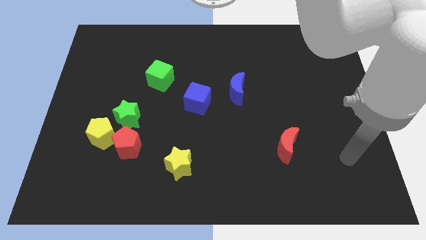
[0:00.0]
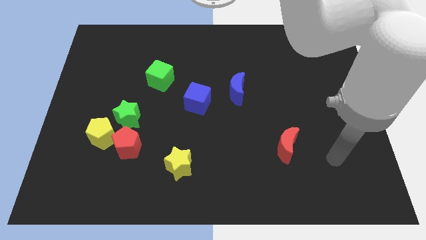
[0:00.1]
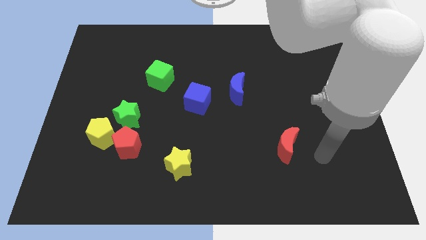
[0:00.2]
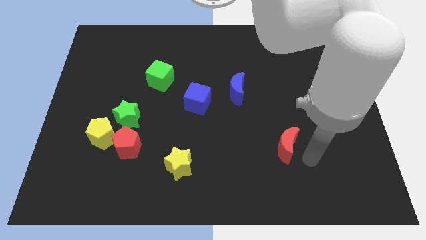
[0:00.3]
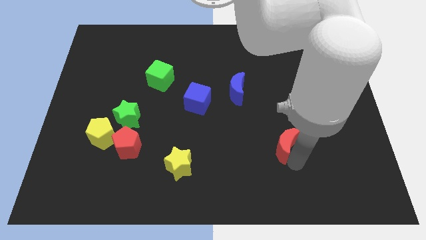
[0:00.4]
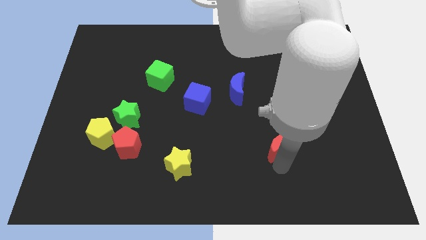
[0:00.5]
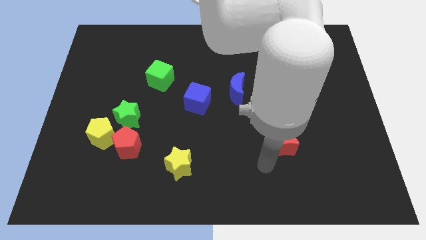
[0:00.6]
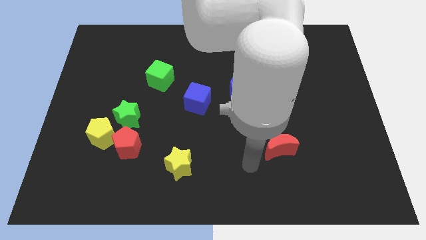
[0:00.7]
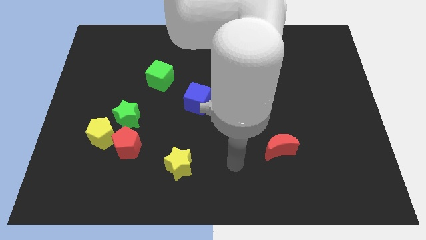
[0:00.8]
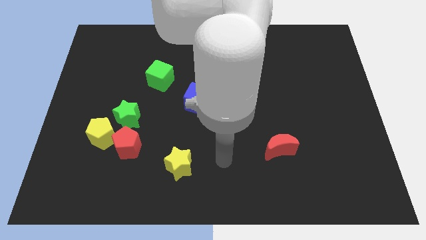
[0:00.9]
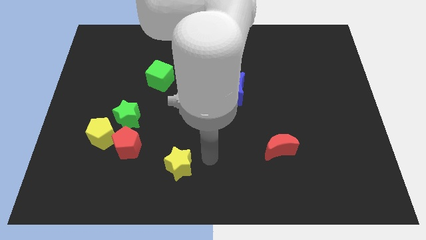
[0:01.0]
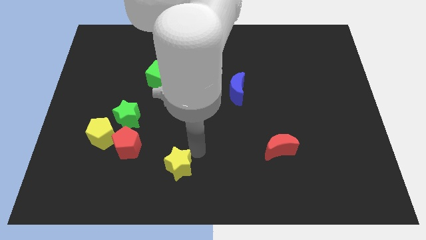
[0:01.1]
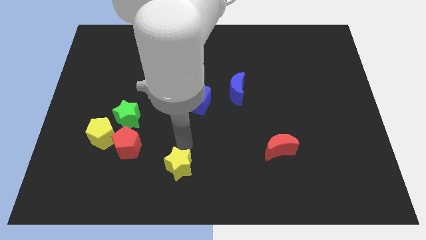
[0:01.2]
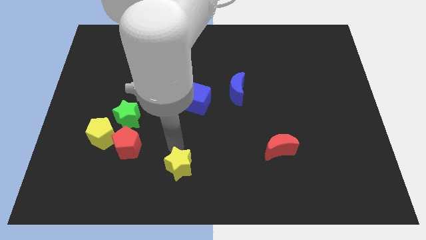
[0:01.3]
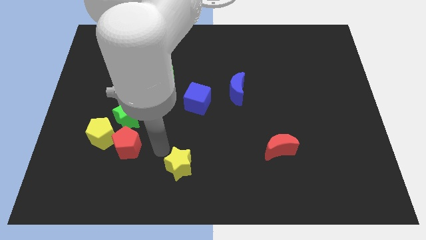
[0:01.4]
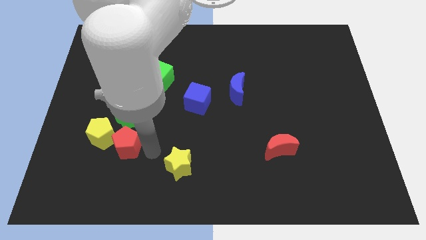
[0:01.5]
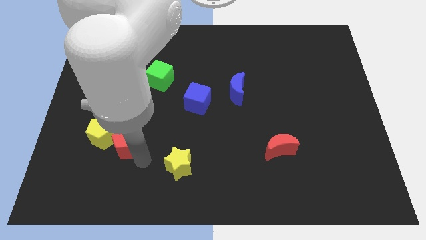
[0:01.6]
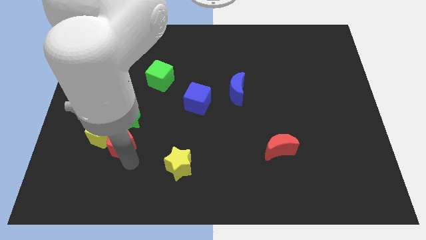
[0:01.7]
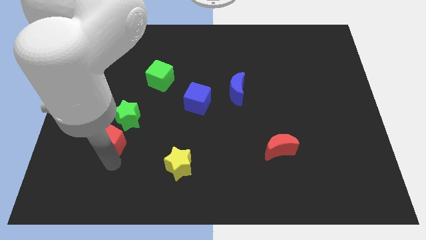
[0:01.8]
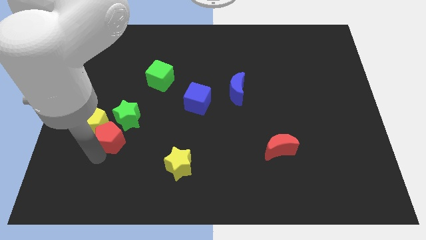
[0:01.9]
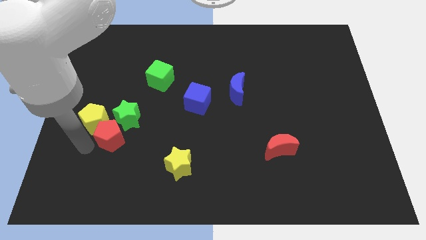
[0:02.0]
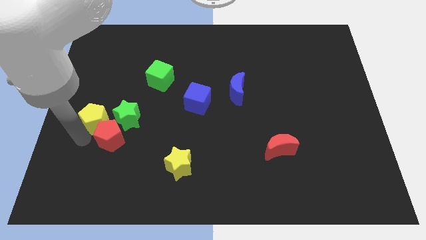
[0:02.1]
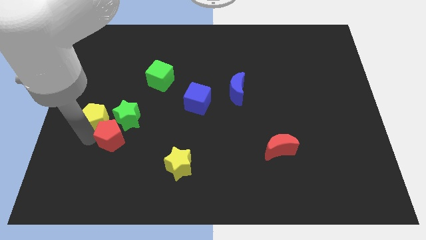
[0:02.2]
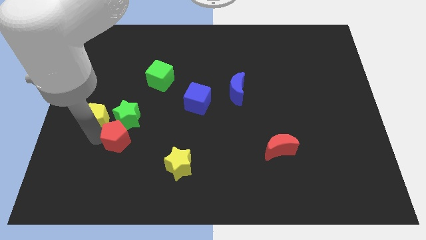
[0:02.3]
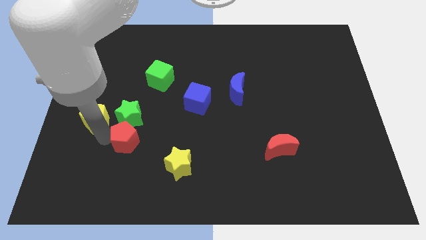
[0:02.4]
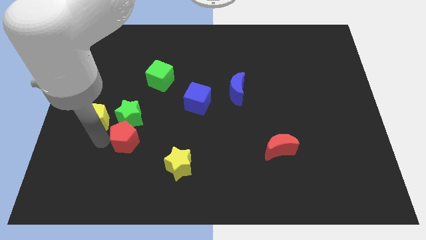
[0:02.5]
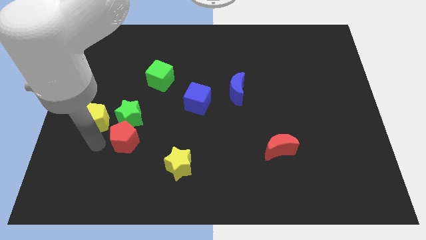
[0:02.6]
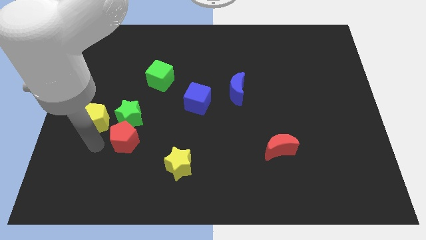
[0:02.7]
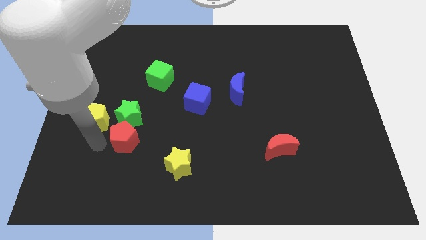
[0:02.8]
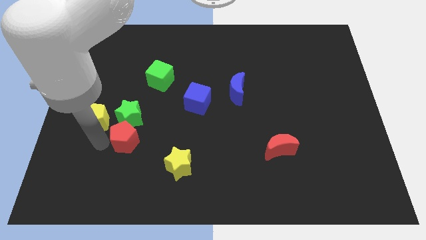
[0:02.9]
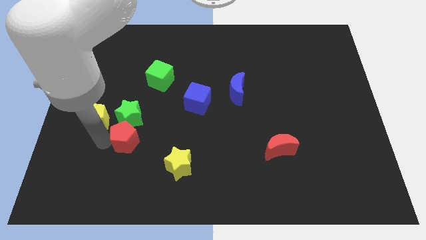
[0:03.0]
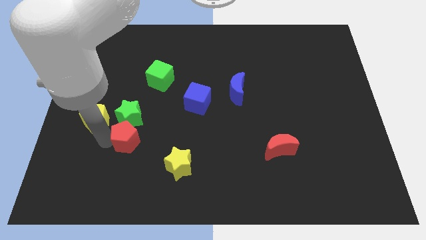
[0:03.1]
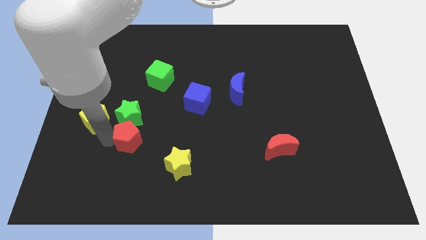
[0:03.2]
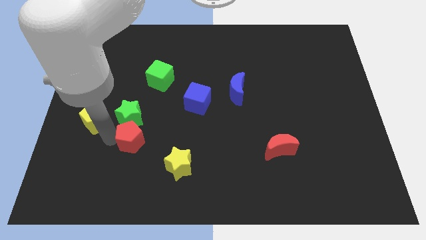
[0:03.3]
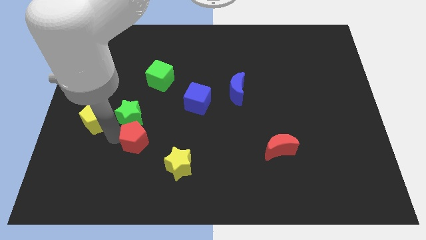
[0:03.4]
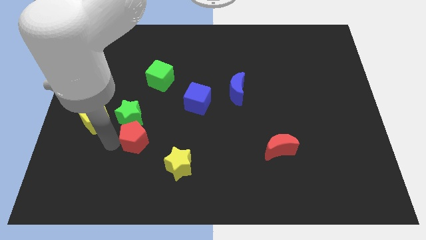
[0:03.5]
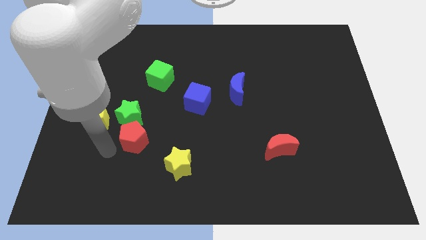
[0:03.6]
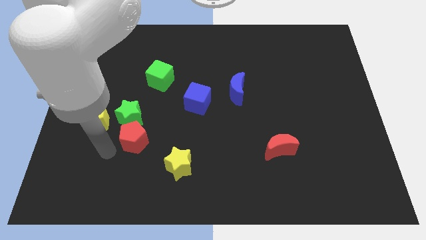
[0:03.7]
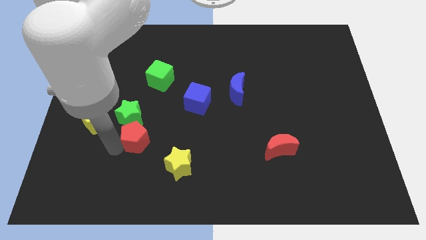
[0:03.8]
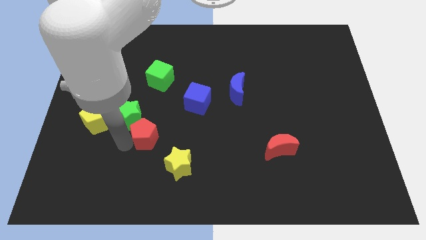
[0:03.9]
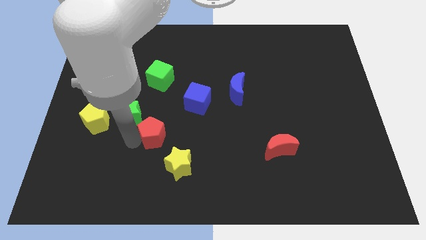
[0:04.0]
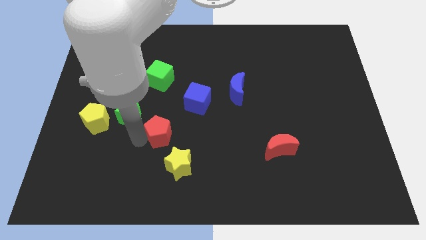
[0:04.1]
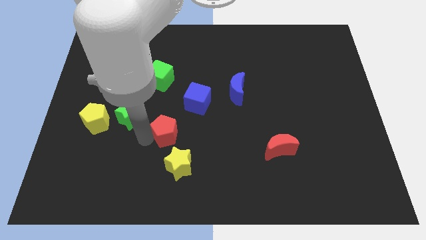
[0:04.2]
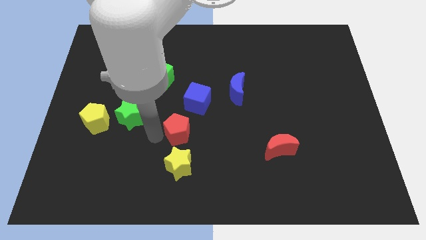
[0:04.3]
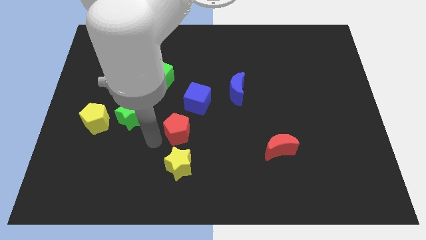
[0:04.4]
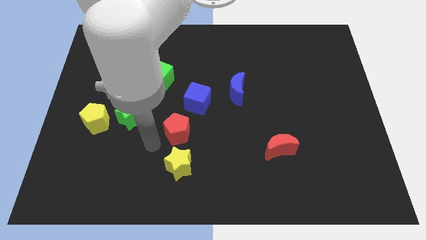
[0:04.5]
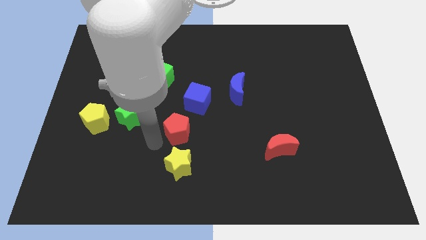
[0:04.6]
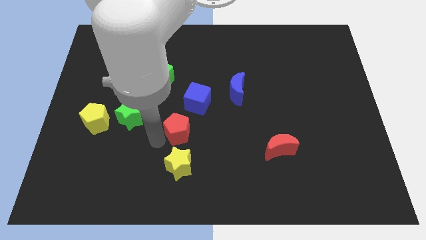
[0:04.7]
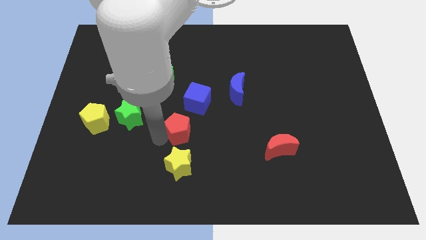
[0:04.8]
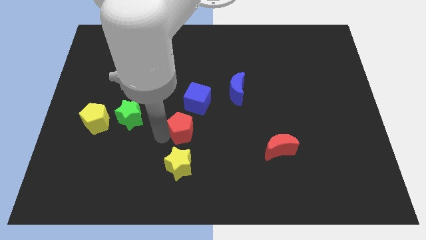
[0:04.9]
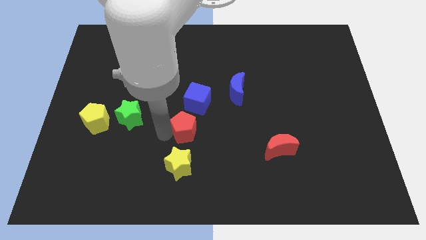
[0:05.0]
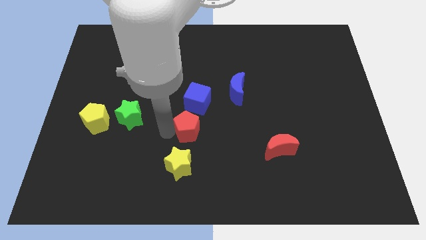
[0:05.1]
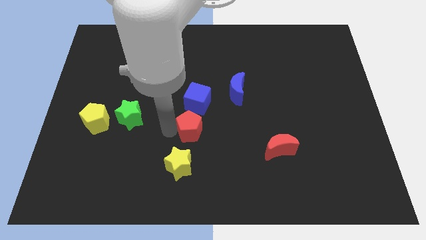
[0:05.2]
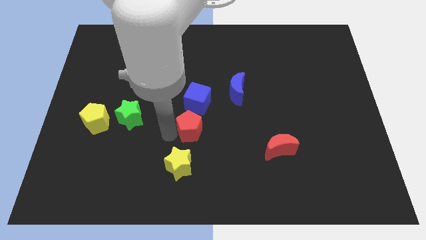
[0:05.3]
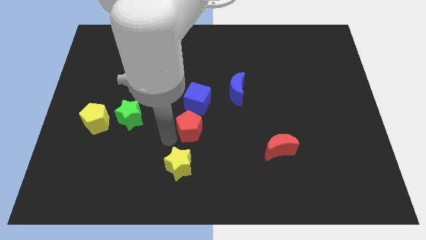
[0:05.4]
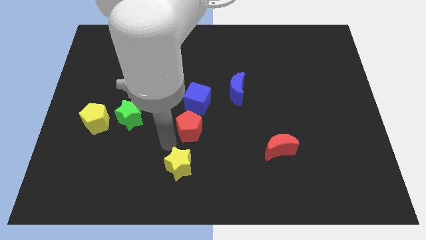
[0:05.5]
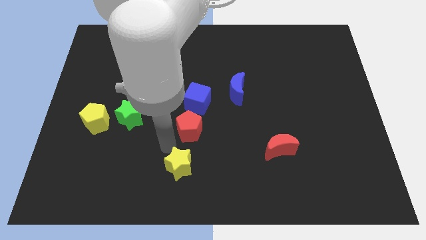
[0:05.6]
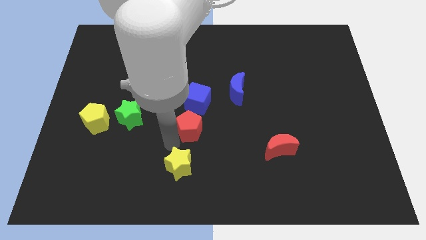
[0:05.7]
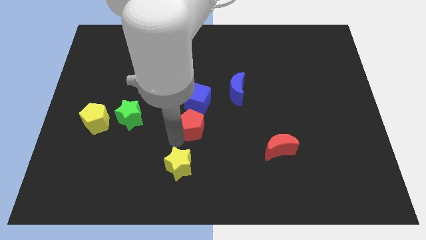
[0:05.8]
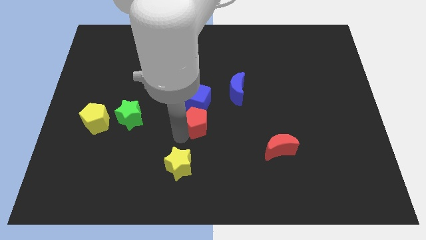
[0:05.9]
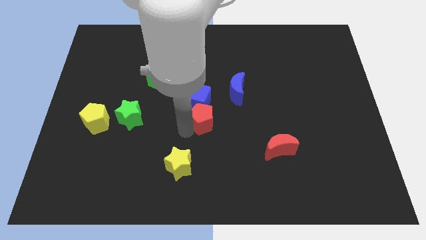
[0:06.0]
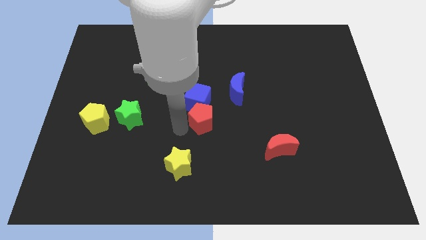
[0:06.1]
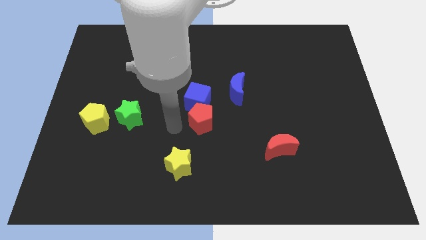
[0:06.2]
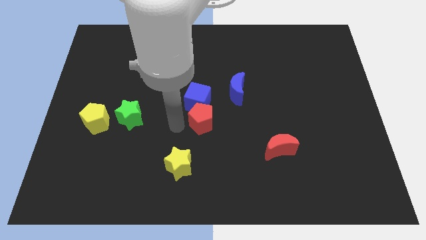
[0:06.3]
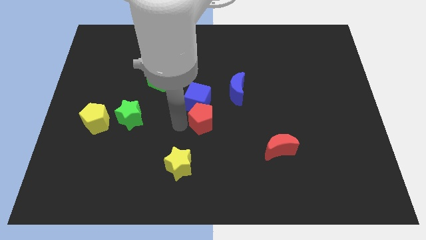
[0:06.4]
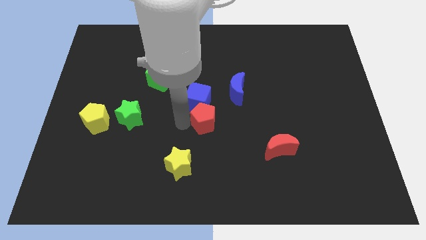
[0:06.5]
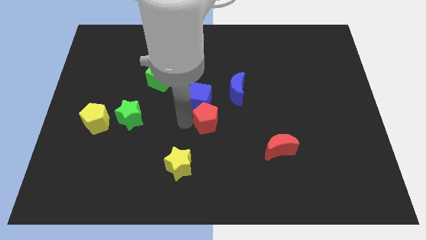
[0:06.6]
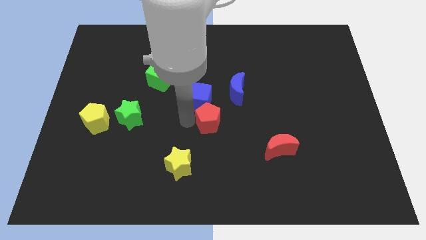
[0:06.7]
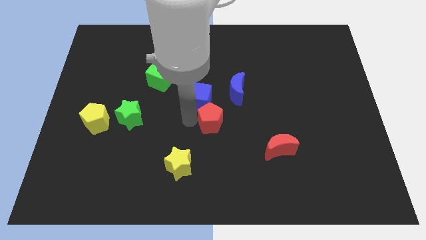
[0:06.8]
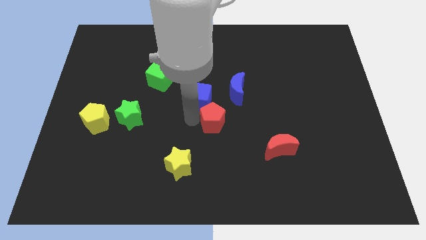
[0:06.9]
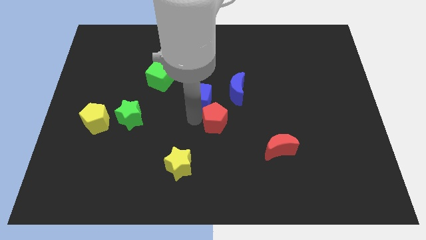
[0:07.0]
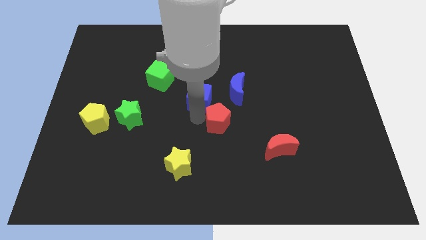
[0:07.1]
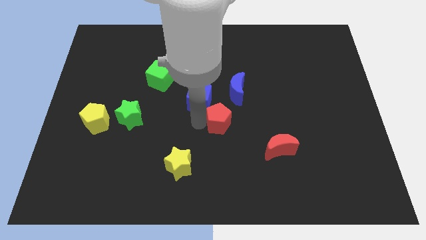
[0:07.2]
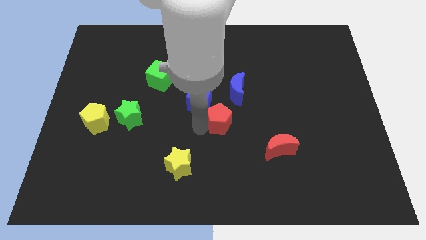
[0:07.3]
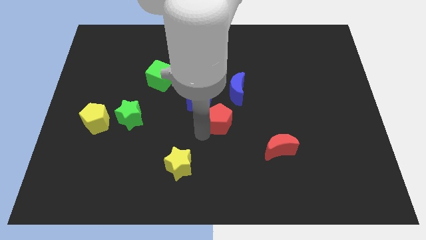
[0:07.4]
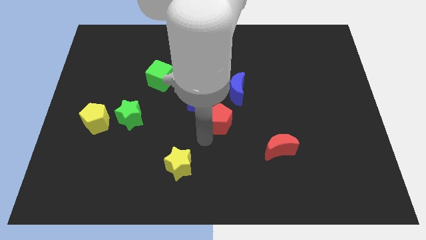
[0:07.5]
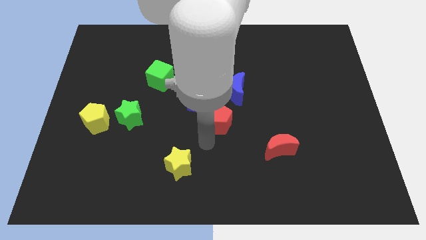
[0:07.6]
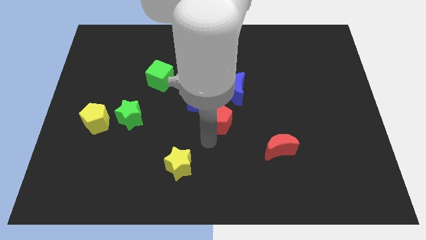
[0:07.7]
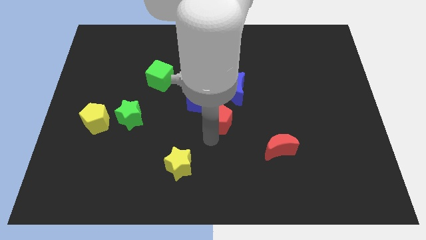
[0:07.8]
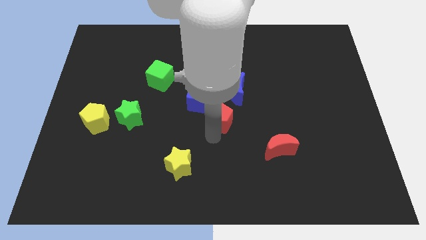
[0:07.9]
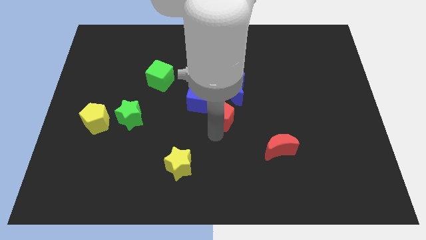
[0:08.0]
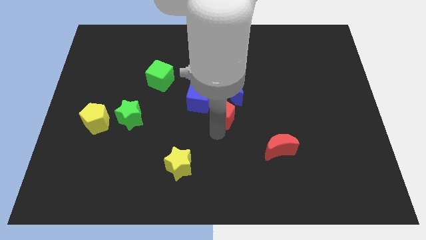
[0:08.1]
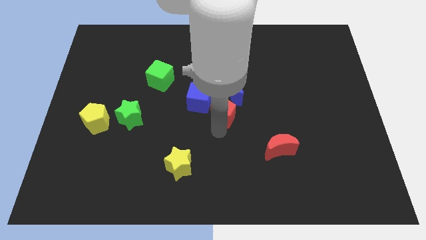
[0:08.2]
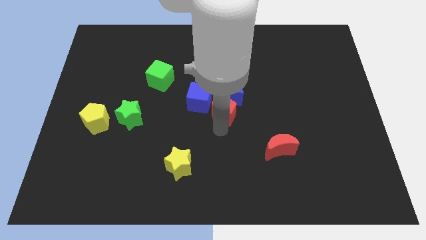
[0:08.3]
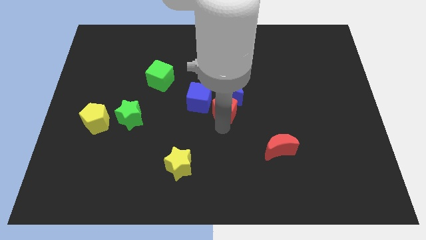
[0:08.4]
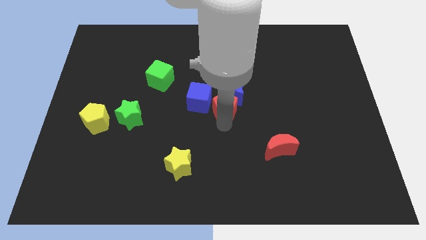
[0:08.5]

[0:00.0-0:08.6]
move the red pentagon towards the blue moon
